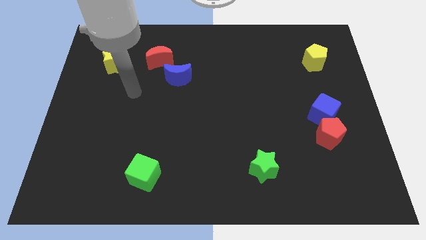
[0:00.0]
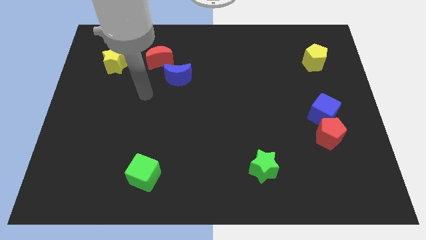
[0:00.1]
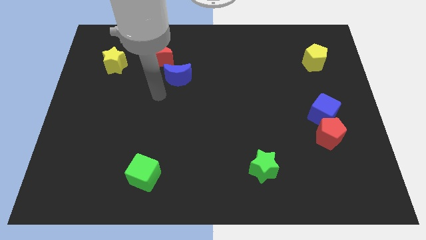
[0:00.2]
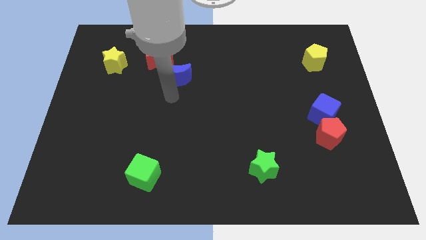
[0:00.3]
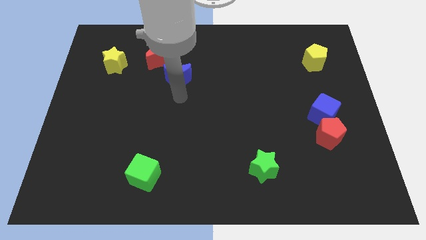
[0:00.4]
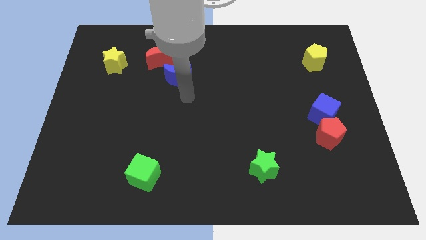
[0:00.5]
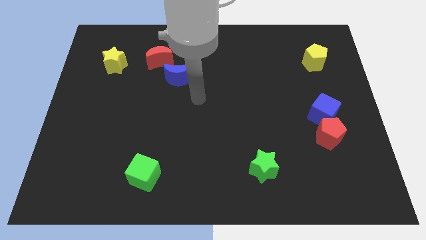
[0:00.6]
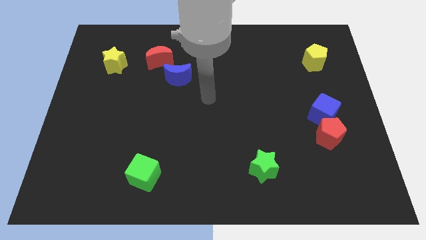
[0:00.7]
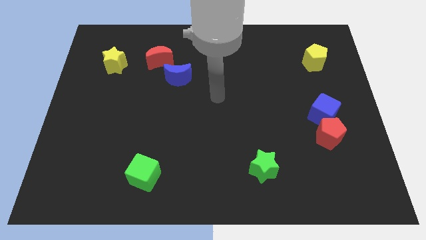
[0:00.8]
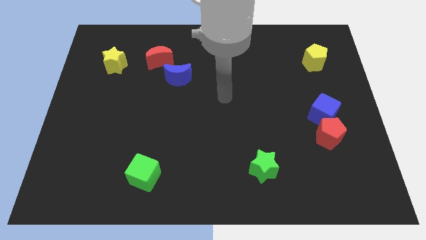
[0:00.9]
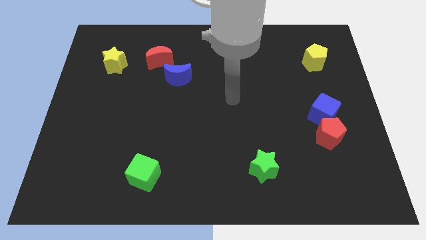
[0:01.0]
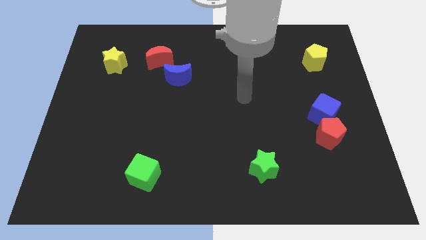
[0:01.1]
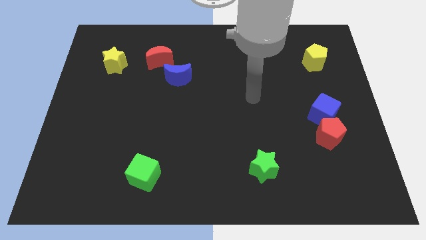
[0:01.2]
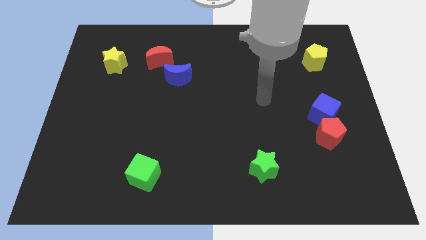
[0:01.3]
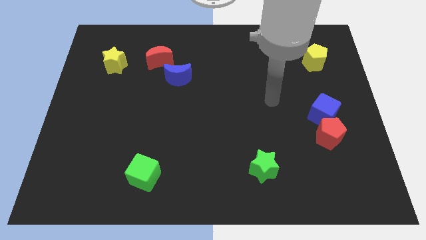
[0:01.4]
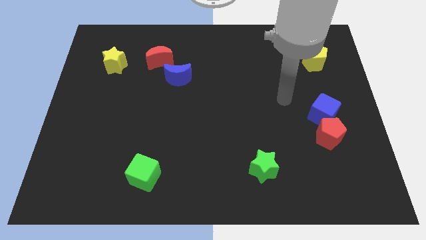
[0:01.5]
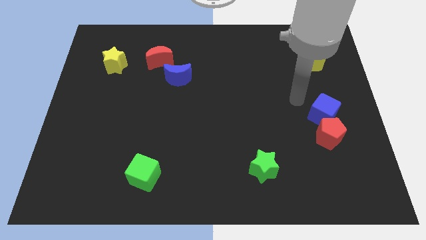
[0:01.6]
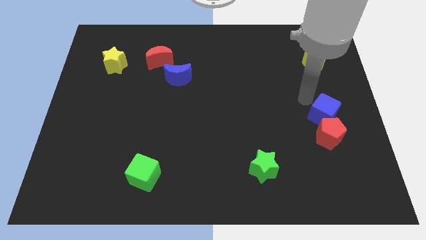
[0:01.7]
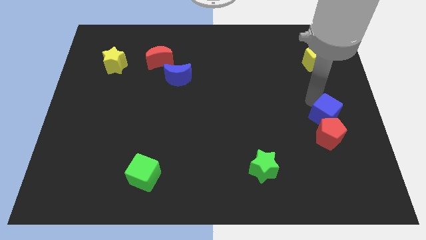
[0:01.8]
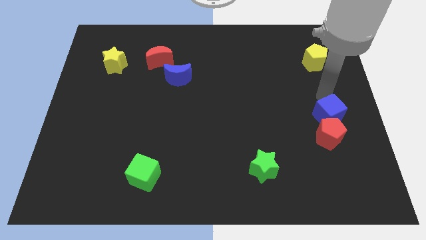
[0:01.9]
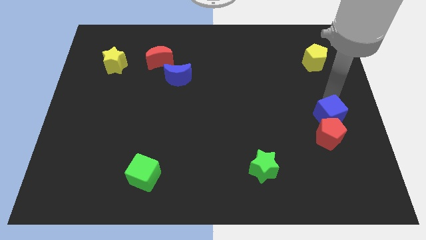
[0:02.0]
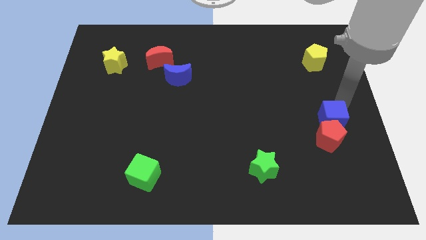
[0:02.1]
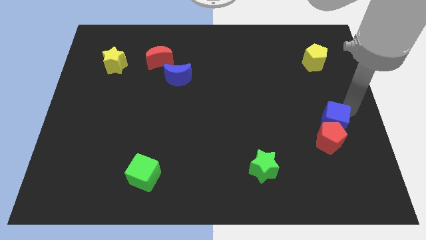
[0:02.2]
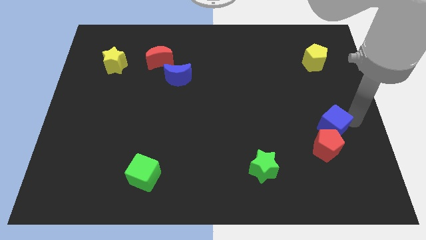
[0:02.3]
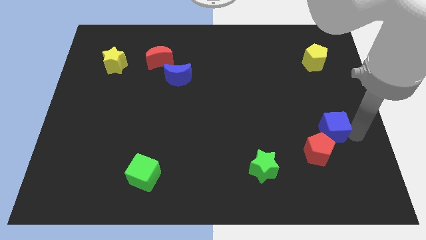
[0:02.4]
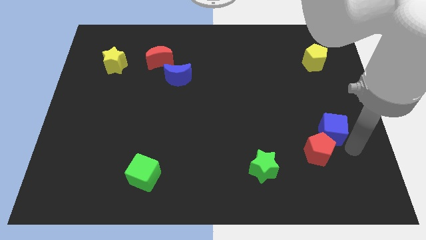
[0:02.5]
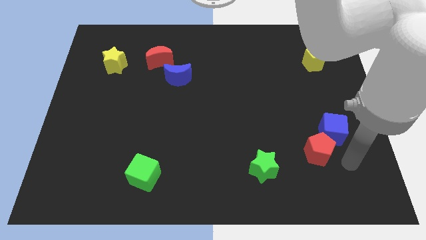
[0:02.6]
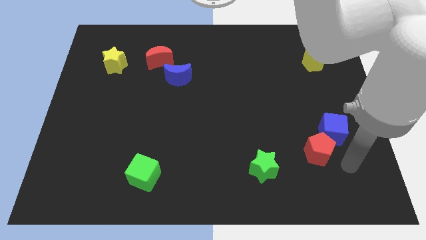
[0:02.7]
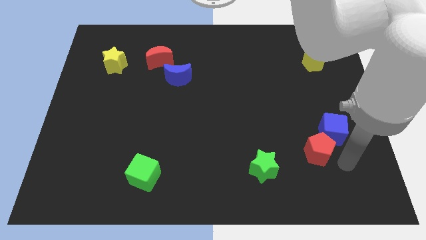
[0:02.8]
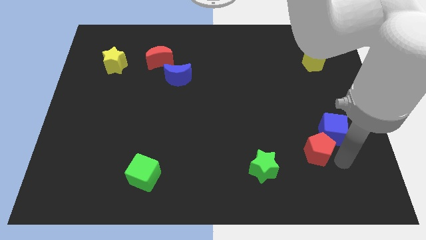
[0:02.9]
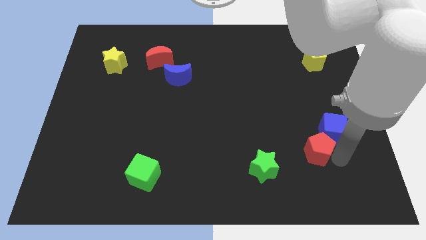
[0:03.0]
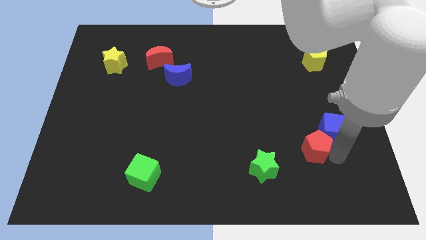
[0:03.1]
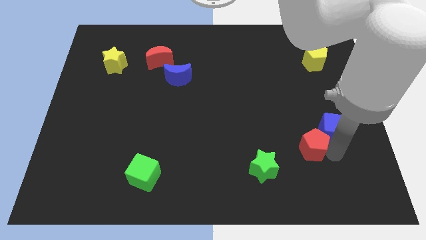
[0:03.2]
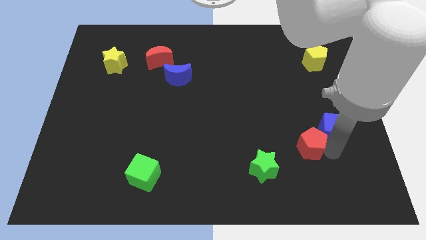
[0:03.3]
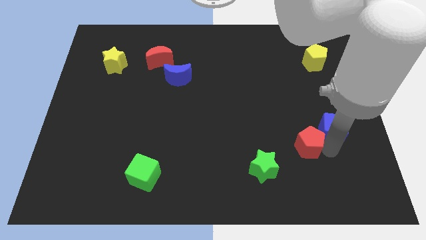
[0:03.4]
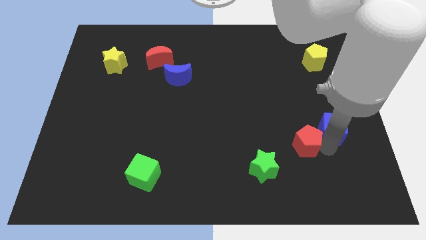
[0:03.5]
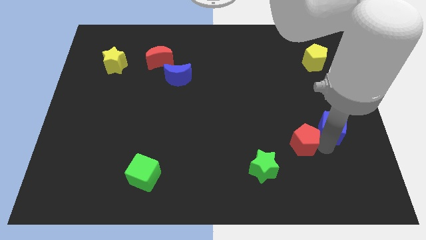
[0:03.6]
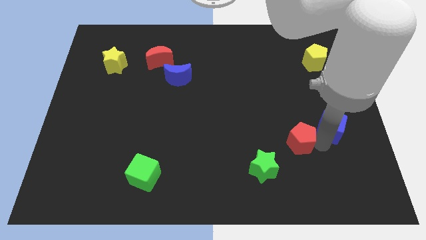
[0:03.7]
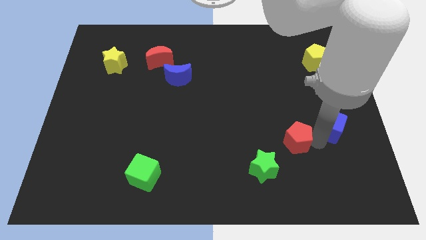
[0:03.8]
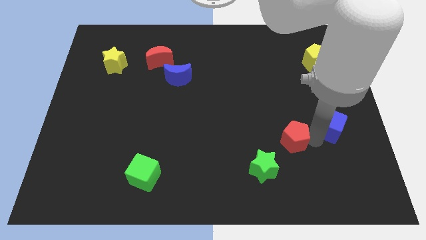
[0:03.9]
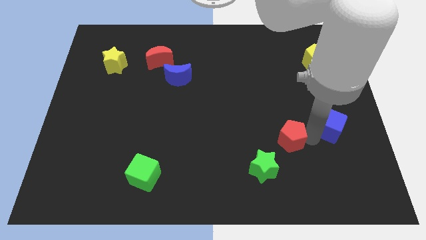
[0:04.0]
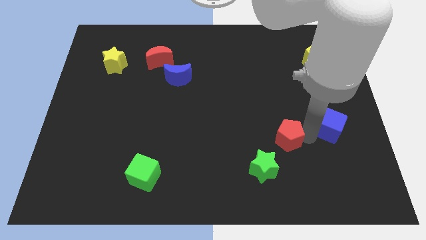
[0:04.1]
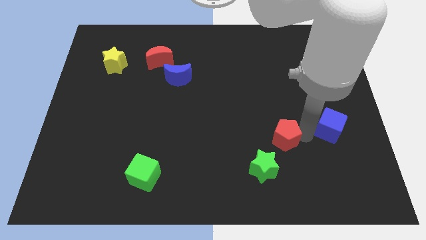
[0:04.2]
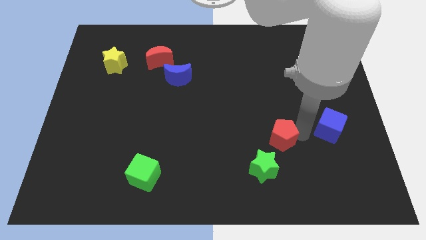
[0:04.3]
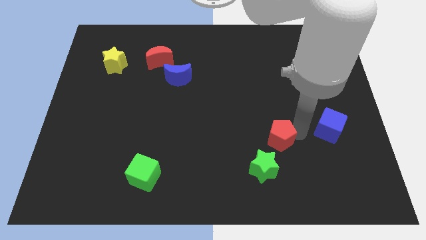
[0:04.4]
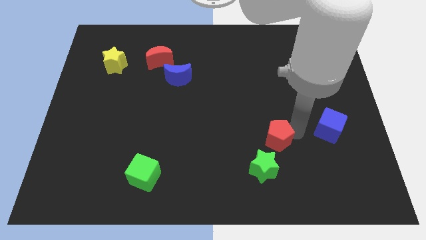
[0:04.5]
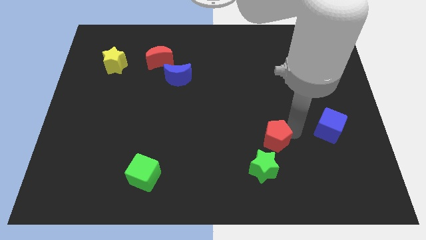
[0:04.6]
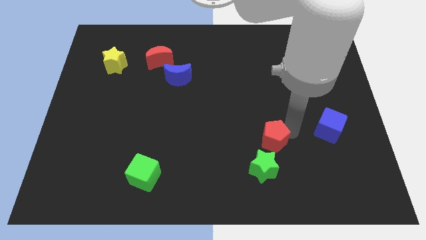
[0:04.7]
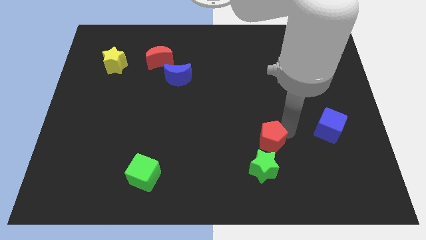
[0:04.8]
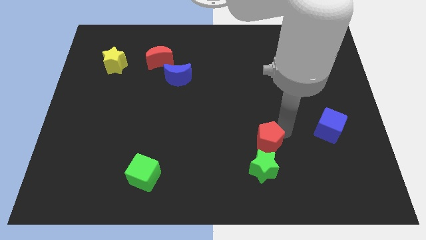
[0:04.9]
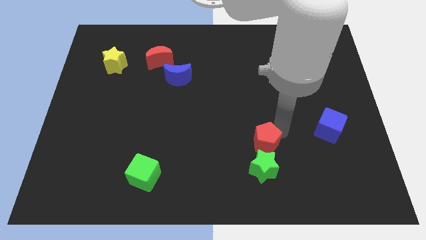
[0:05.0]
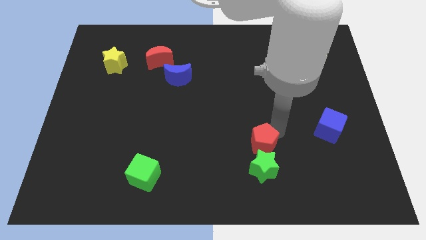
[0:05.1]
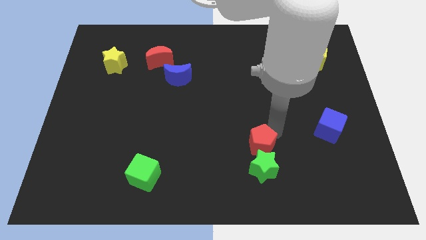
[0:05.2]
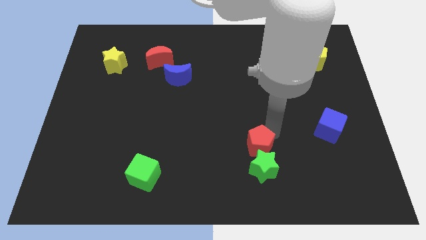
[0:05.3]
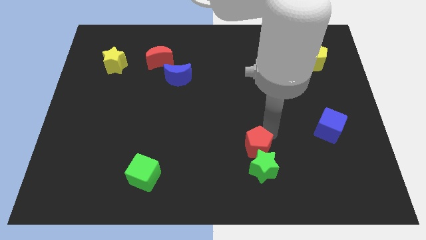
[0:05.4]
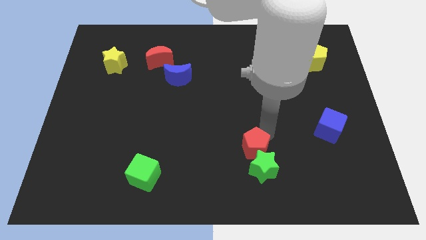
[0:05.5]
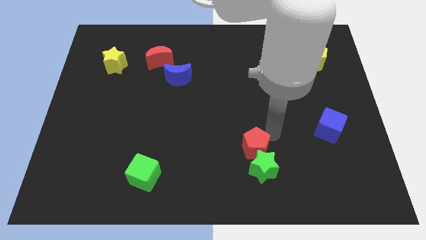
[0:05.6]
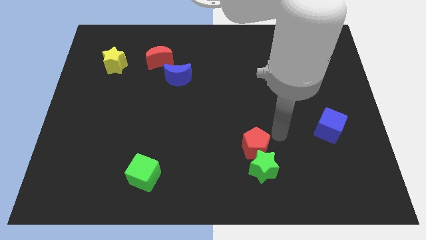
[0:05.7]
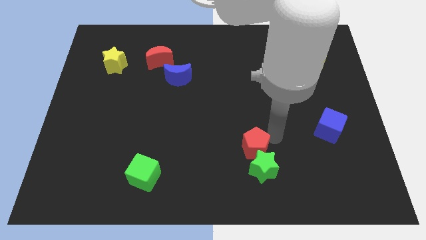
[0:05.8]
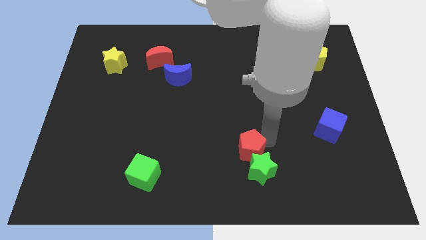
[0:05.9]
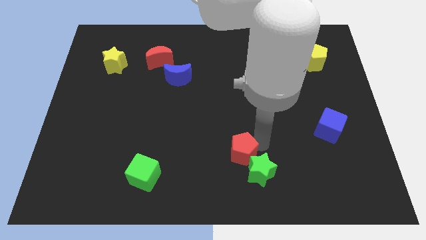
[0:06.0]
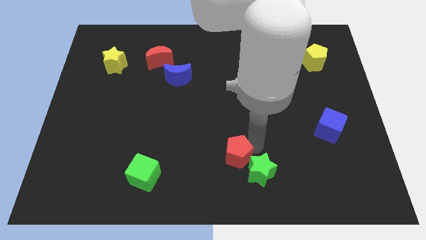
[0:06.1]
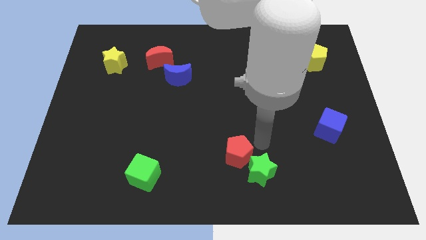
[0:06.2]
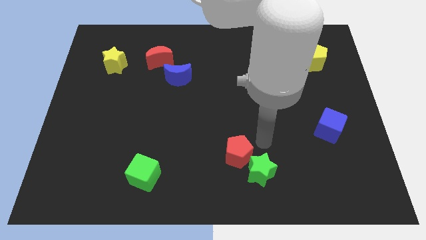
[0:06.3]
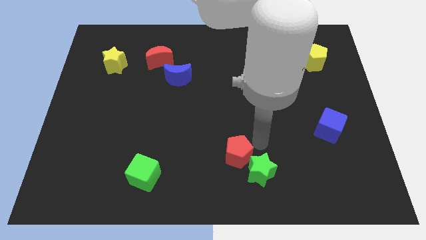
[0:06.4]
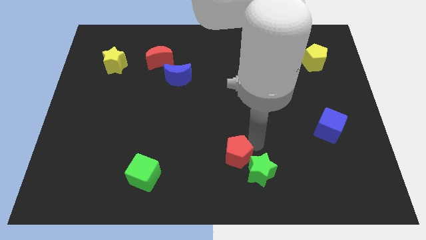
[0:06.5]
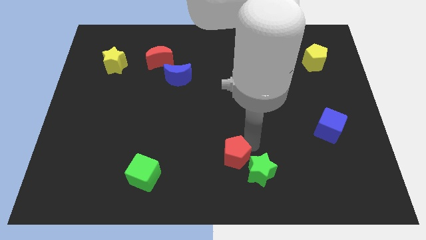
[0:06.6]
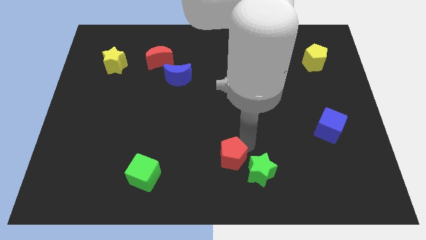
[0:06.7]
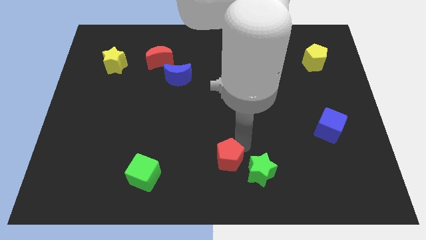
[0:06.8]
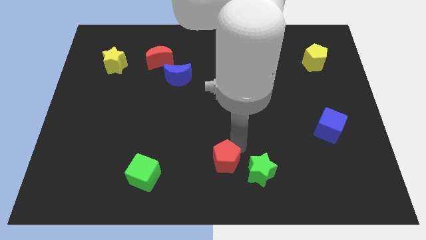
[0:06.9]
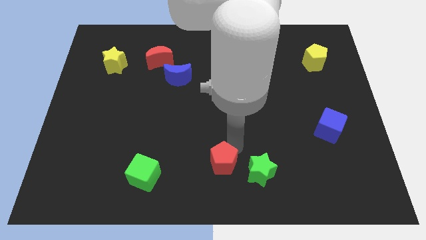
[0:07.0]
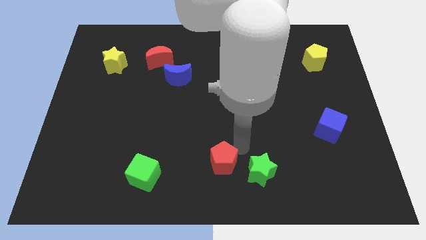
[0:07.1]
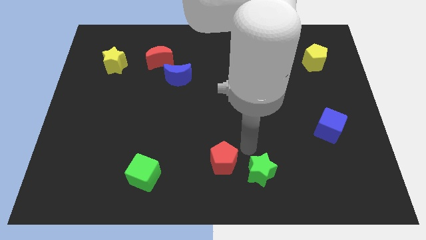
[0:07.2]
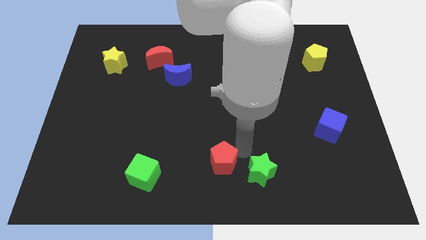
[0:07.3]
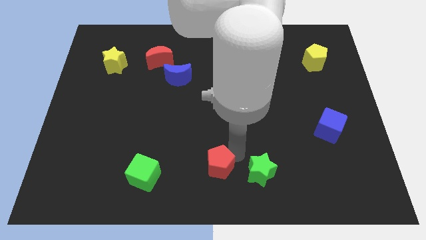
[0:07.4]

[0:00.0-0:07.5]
slide the red pentagon just right of the green cube
